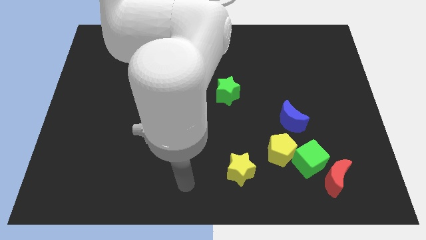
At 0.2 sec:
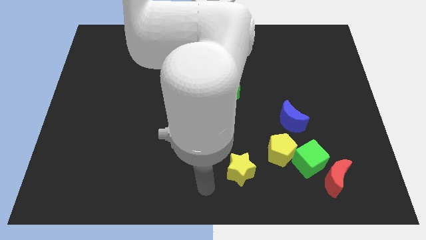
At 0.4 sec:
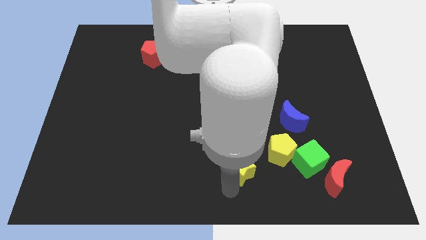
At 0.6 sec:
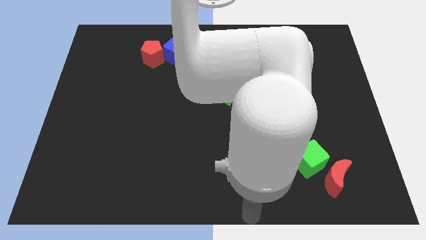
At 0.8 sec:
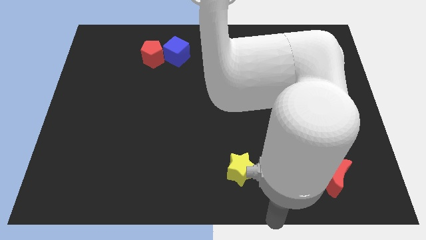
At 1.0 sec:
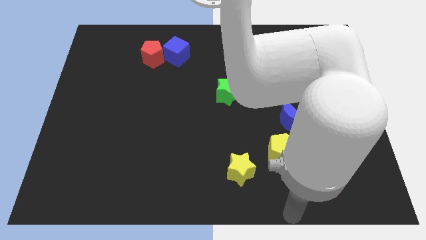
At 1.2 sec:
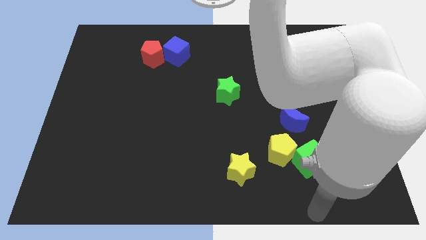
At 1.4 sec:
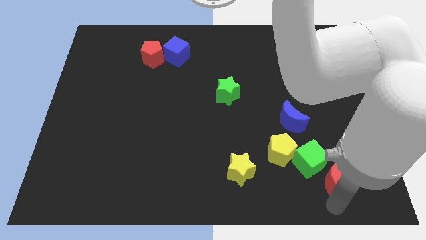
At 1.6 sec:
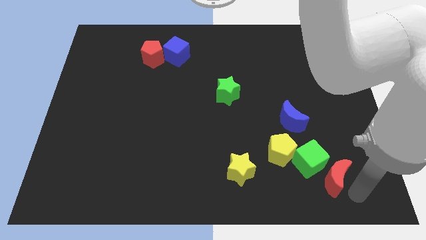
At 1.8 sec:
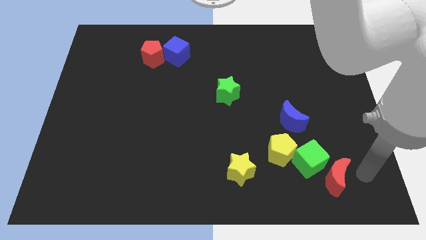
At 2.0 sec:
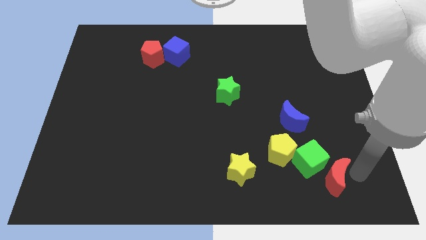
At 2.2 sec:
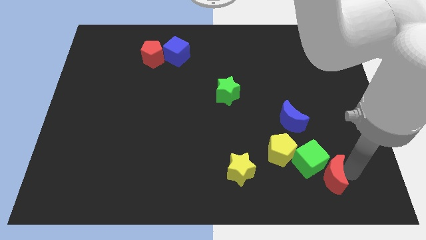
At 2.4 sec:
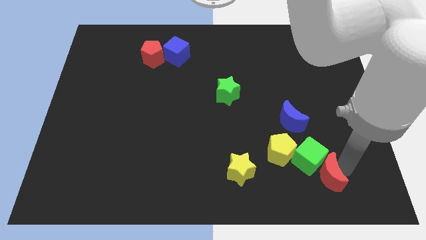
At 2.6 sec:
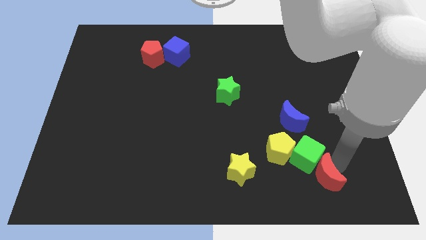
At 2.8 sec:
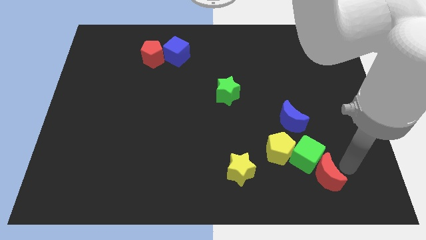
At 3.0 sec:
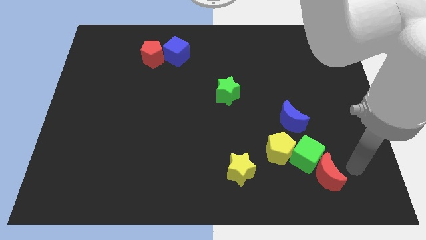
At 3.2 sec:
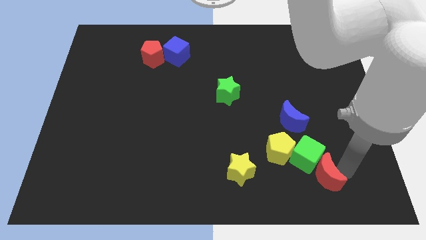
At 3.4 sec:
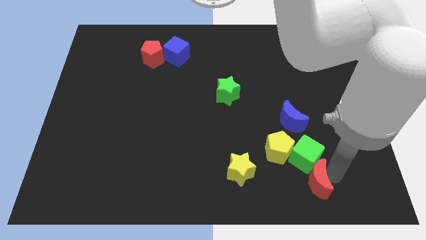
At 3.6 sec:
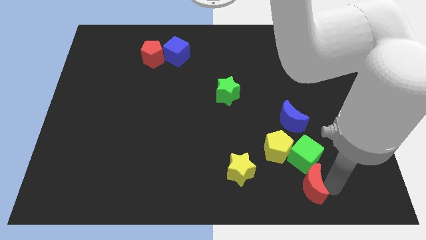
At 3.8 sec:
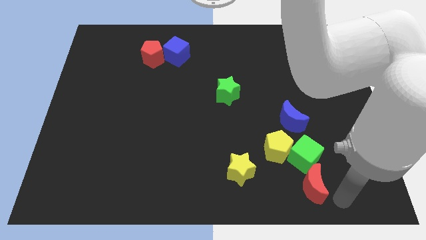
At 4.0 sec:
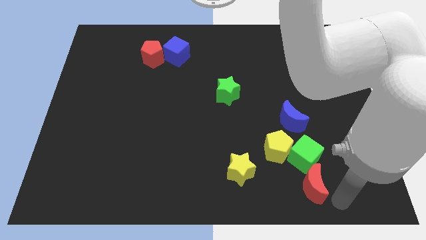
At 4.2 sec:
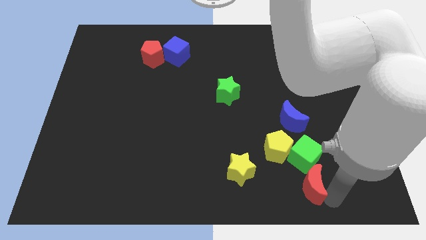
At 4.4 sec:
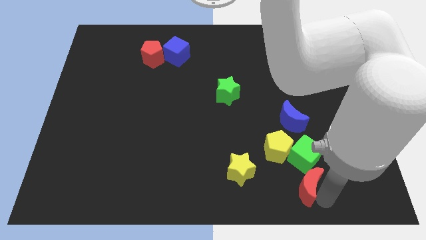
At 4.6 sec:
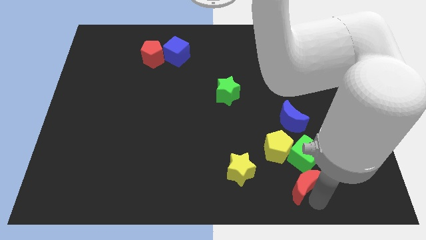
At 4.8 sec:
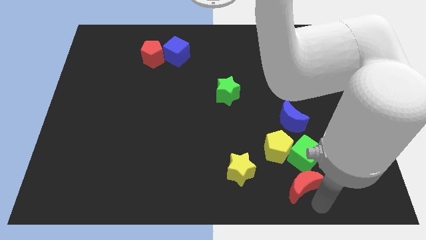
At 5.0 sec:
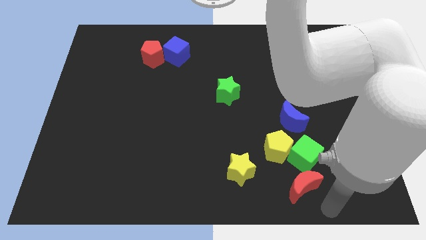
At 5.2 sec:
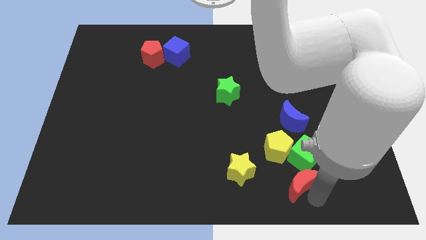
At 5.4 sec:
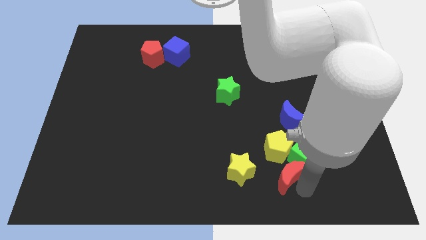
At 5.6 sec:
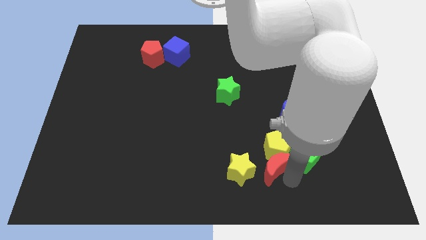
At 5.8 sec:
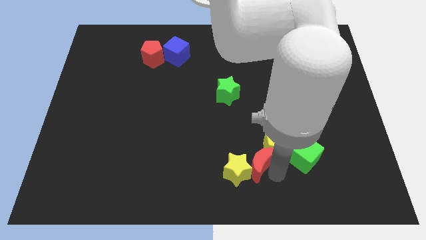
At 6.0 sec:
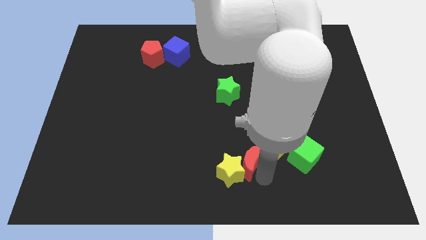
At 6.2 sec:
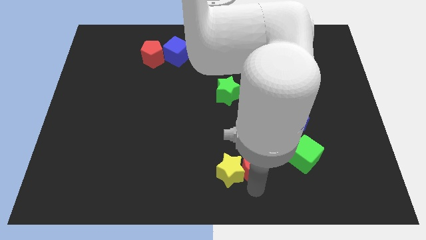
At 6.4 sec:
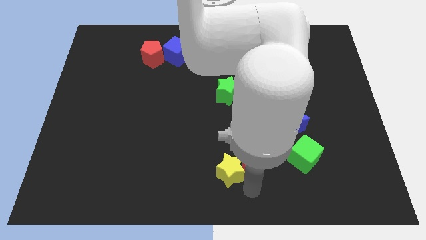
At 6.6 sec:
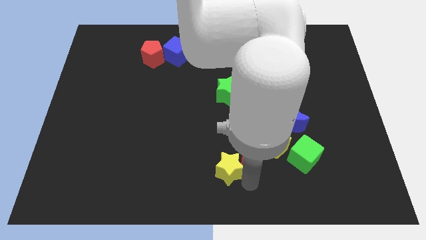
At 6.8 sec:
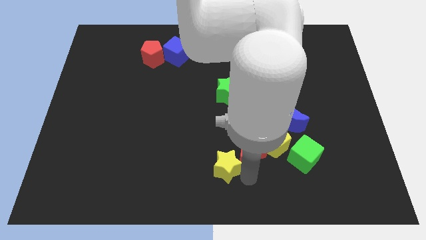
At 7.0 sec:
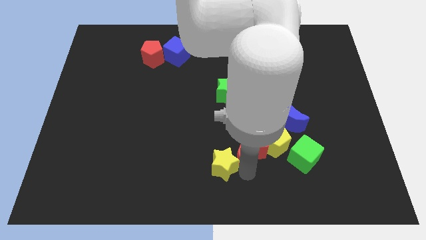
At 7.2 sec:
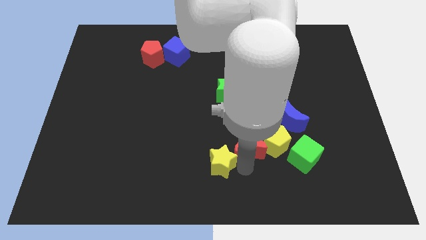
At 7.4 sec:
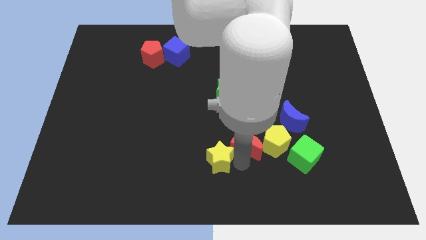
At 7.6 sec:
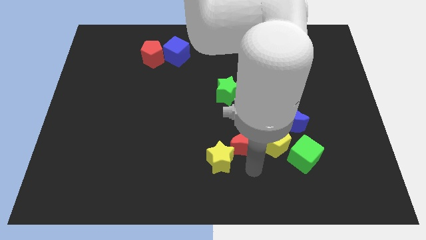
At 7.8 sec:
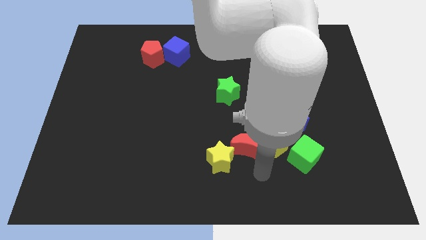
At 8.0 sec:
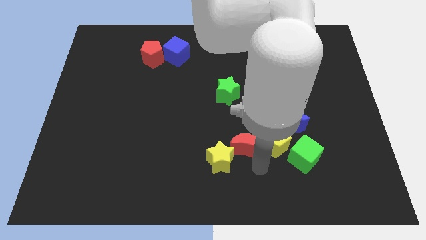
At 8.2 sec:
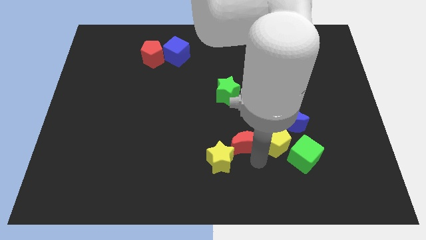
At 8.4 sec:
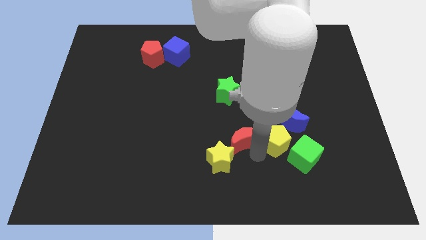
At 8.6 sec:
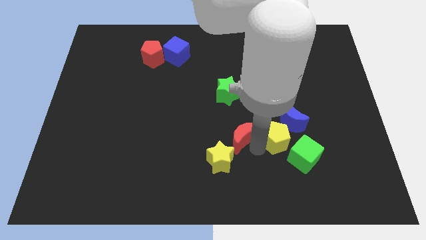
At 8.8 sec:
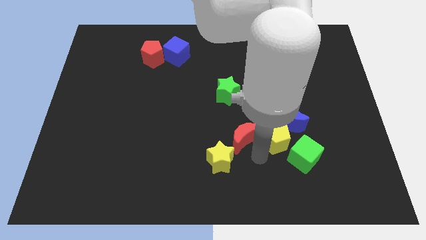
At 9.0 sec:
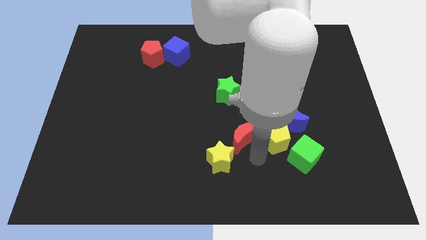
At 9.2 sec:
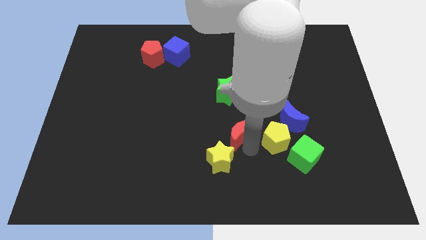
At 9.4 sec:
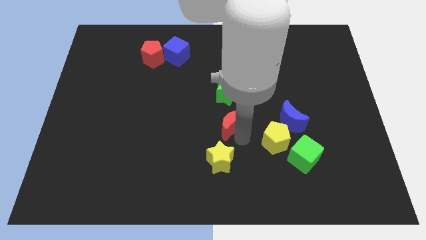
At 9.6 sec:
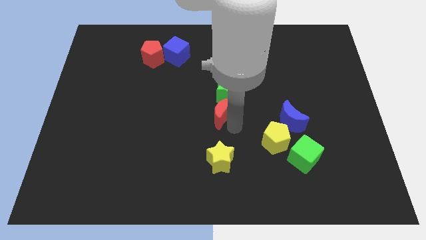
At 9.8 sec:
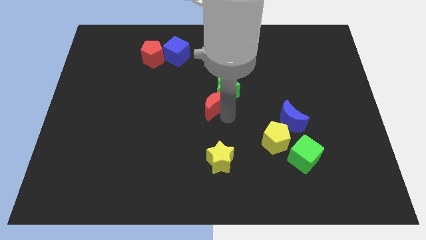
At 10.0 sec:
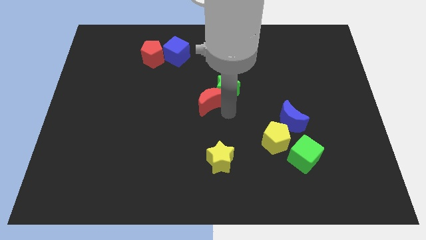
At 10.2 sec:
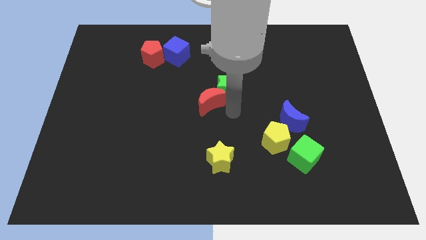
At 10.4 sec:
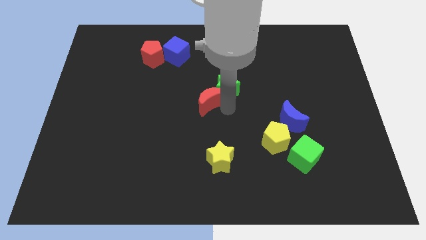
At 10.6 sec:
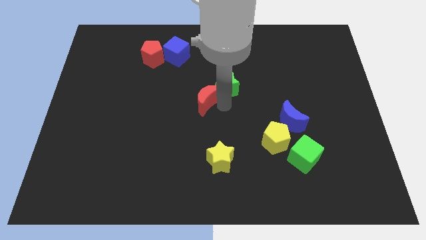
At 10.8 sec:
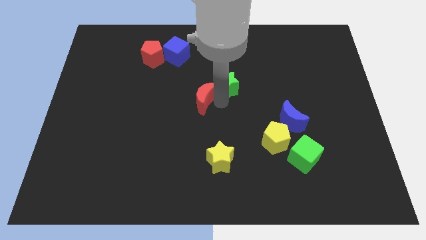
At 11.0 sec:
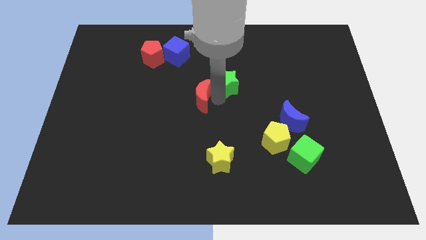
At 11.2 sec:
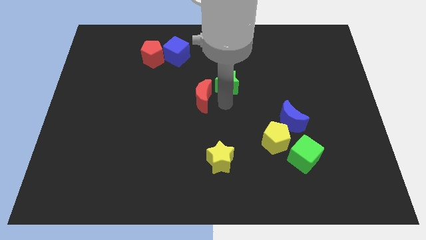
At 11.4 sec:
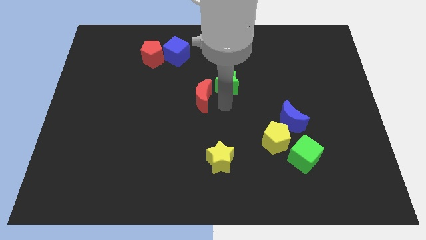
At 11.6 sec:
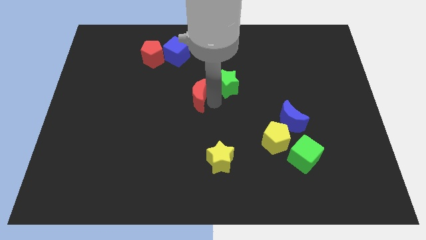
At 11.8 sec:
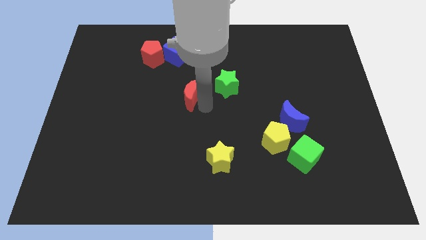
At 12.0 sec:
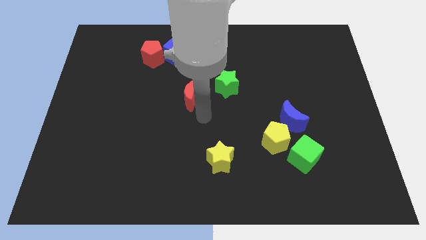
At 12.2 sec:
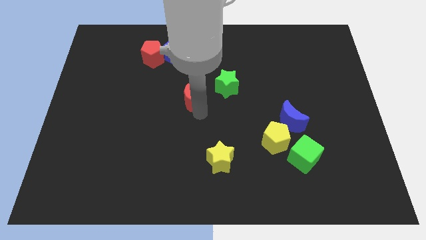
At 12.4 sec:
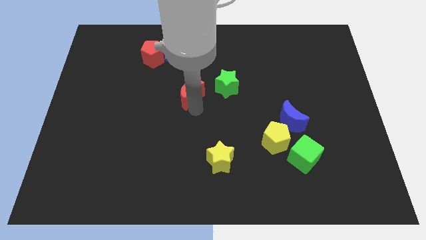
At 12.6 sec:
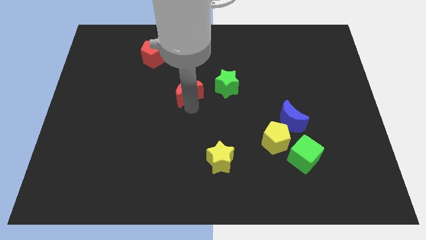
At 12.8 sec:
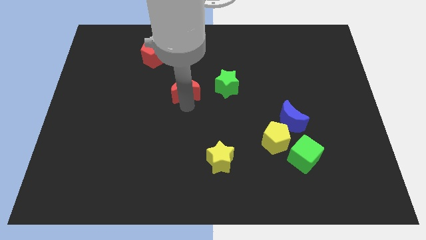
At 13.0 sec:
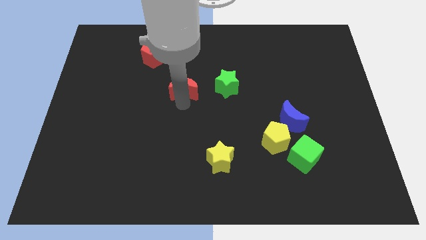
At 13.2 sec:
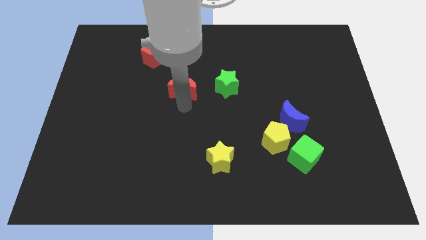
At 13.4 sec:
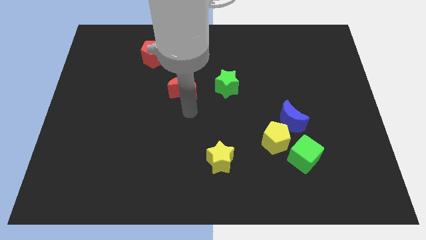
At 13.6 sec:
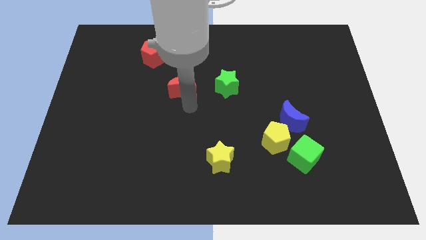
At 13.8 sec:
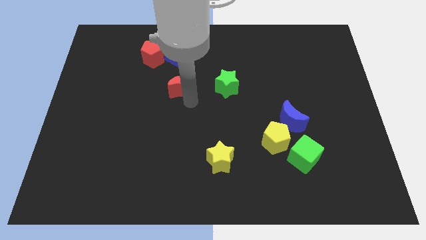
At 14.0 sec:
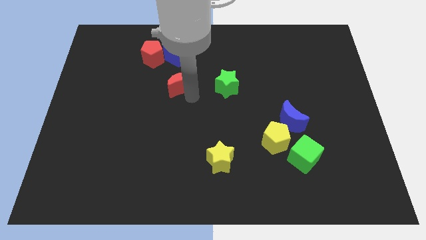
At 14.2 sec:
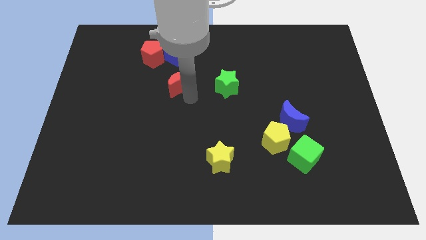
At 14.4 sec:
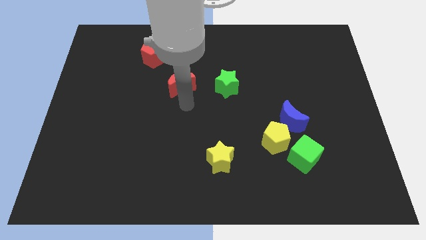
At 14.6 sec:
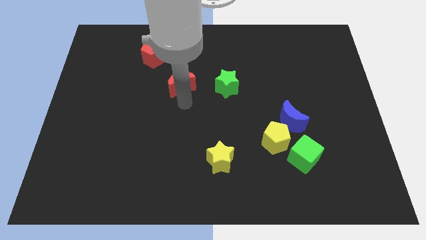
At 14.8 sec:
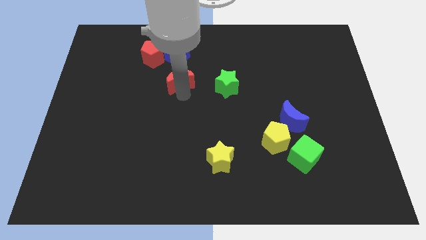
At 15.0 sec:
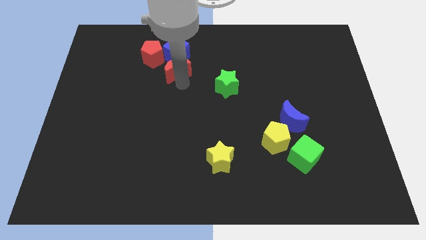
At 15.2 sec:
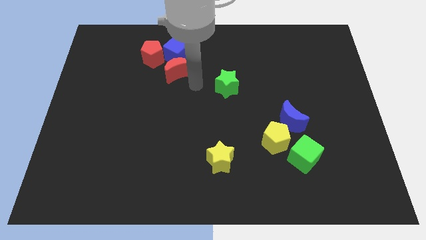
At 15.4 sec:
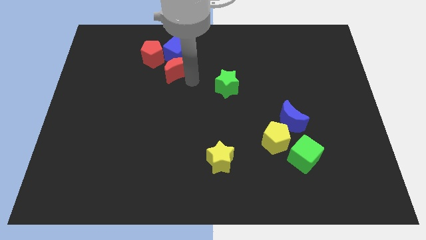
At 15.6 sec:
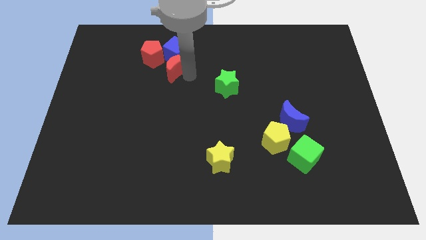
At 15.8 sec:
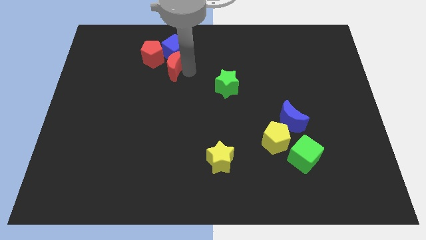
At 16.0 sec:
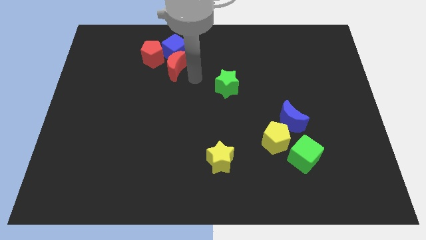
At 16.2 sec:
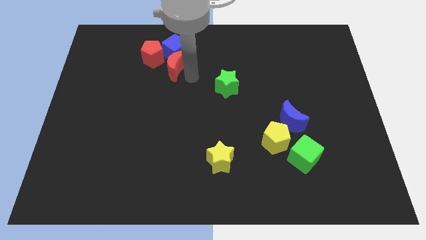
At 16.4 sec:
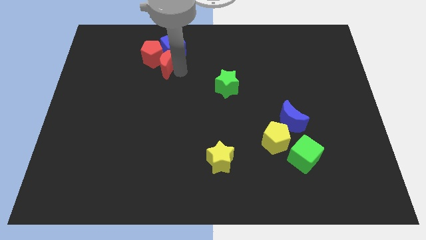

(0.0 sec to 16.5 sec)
push the red moon close to the red pentagon
